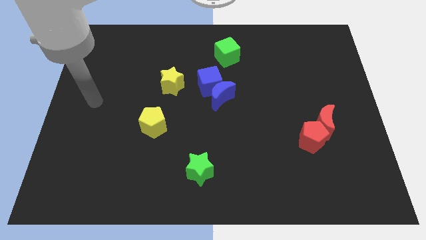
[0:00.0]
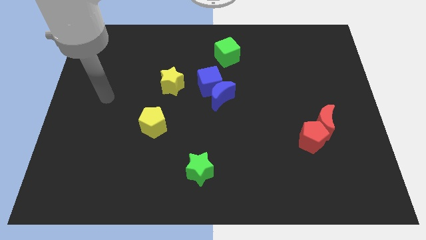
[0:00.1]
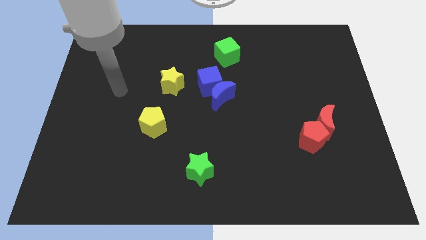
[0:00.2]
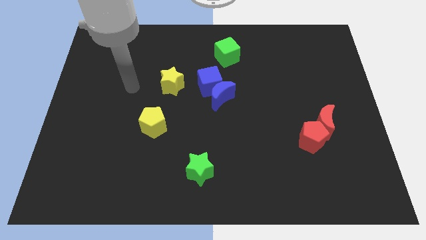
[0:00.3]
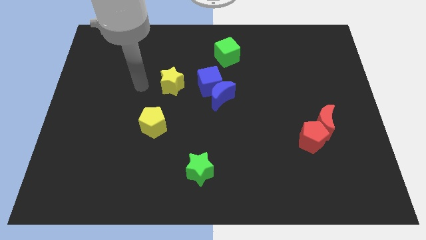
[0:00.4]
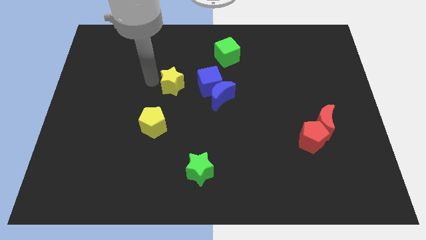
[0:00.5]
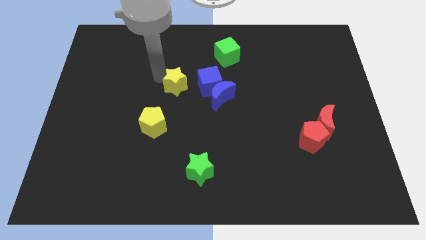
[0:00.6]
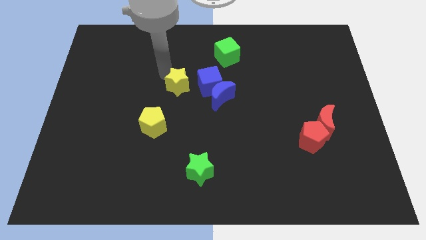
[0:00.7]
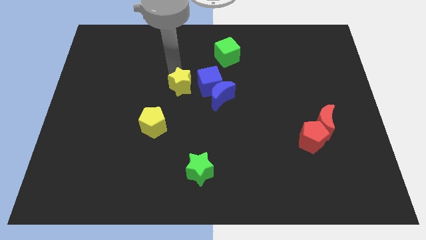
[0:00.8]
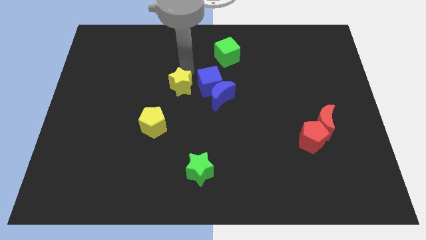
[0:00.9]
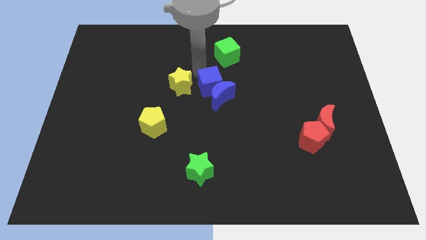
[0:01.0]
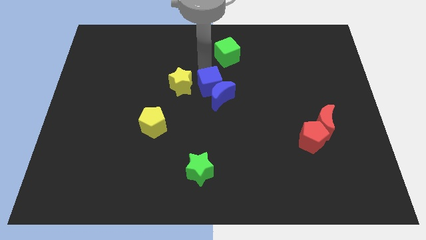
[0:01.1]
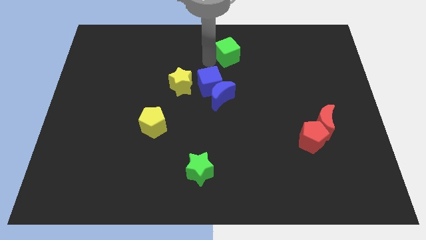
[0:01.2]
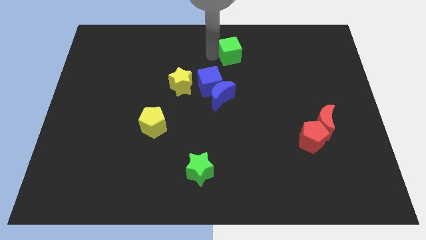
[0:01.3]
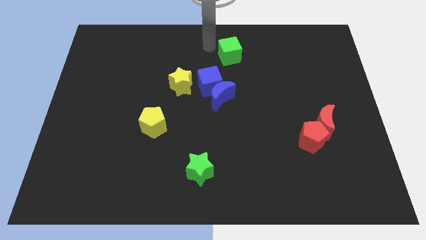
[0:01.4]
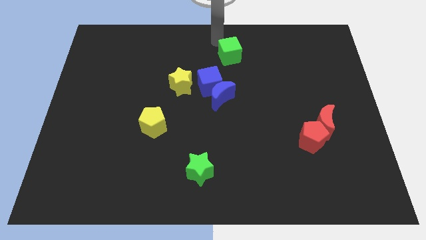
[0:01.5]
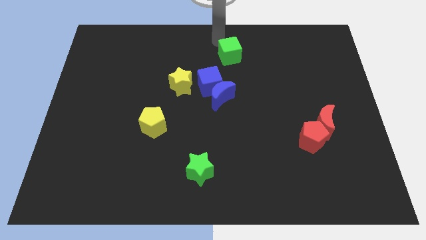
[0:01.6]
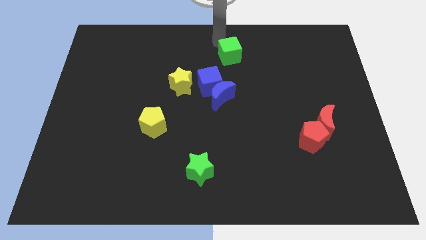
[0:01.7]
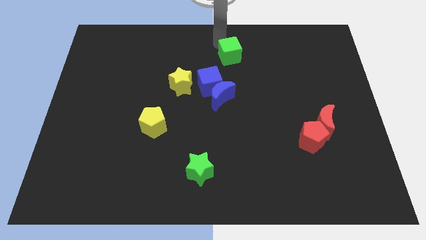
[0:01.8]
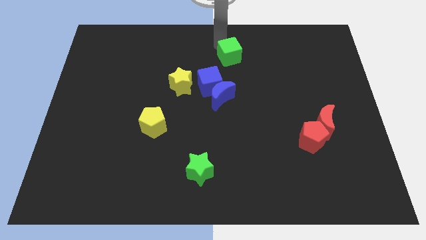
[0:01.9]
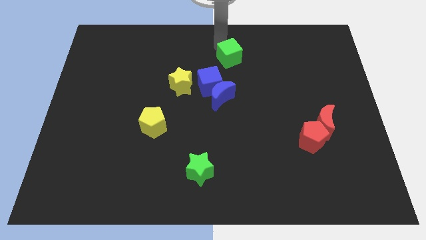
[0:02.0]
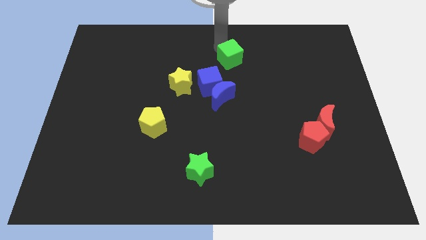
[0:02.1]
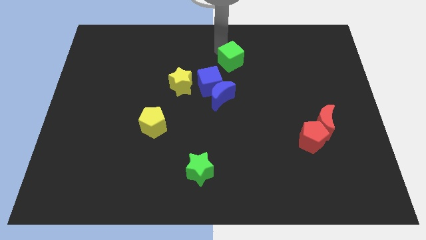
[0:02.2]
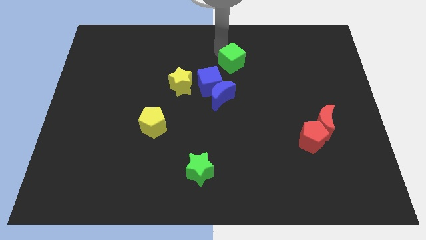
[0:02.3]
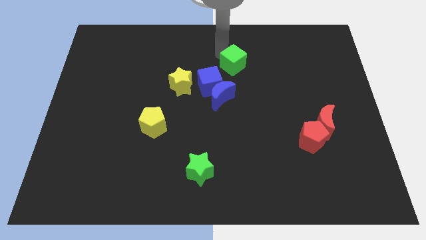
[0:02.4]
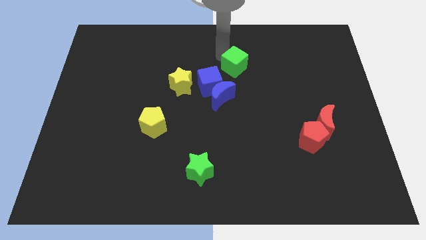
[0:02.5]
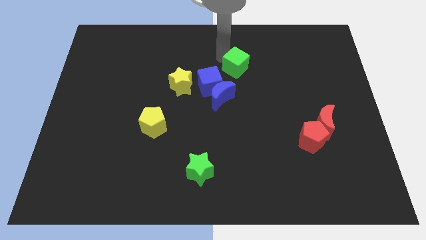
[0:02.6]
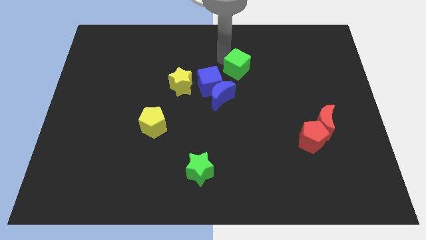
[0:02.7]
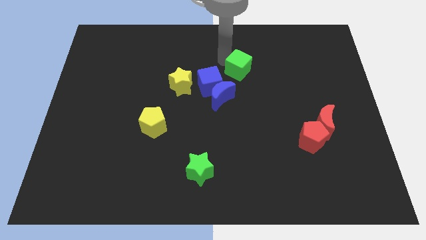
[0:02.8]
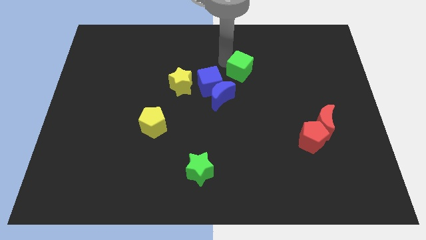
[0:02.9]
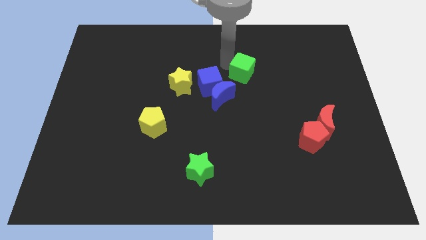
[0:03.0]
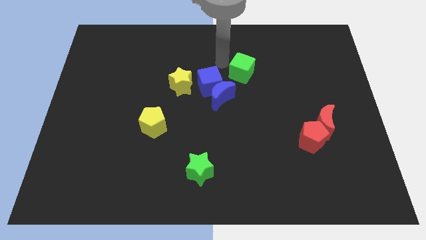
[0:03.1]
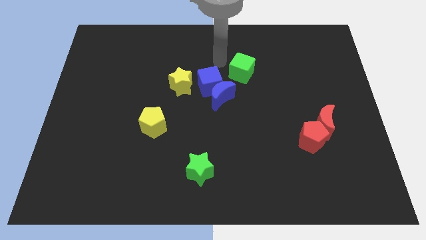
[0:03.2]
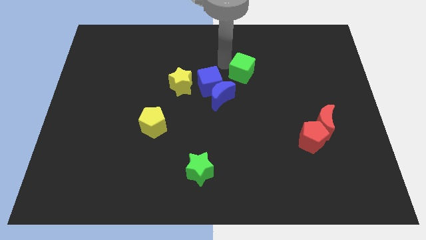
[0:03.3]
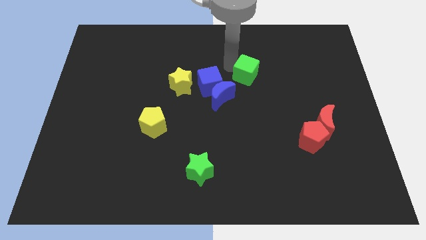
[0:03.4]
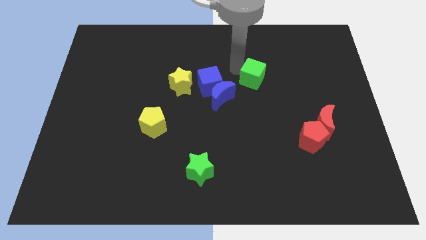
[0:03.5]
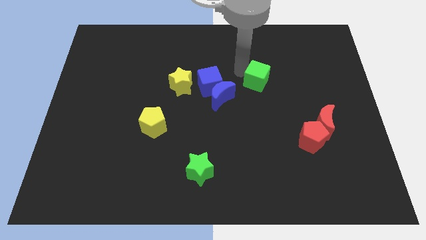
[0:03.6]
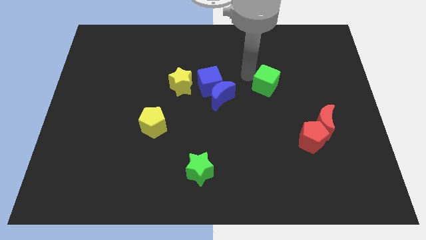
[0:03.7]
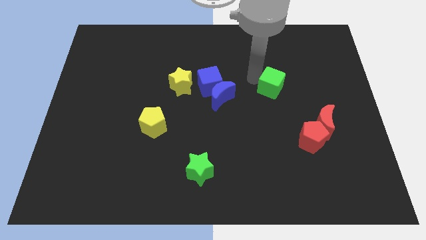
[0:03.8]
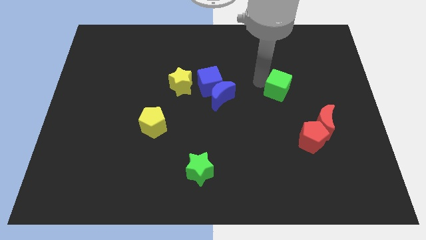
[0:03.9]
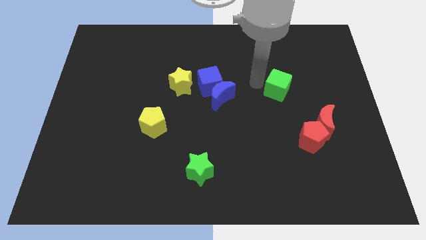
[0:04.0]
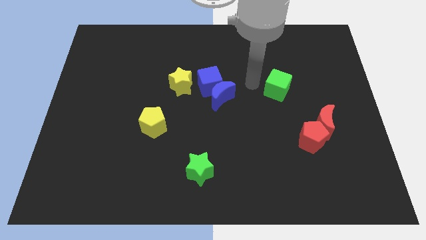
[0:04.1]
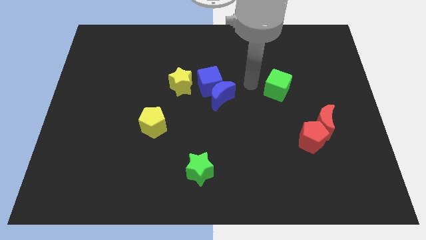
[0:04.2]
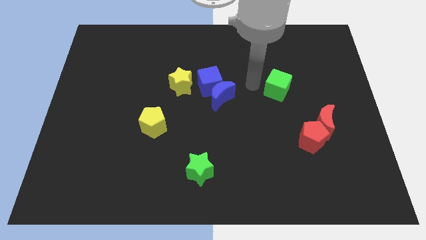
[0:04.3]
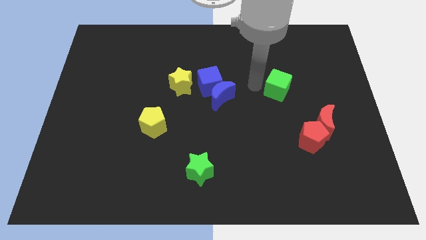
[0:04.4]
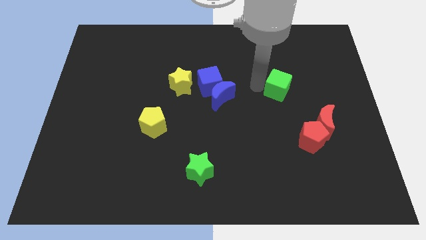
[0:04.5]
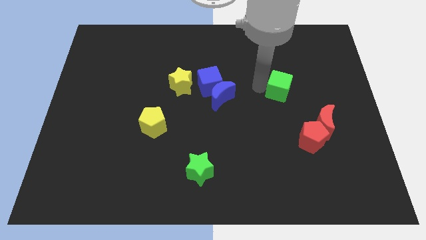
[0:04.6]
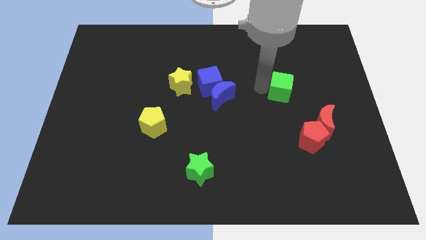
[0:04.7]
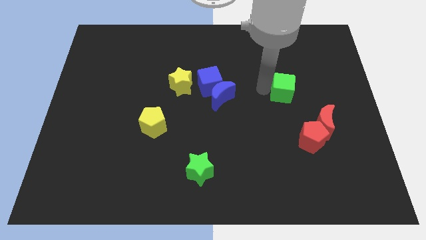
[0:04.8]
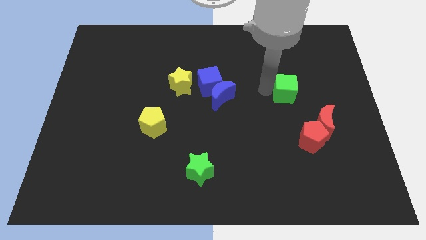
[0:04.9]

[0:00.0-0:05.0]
move the green cube to the top of the red pentagon

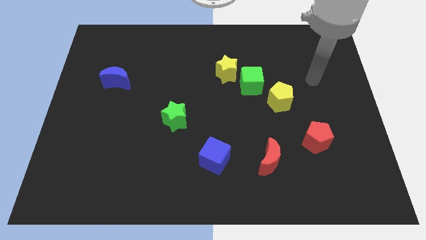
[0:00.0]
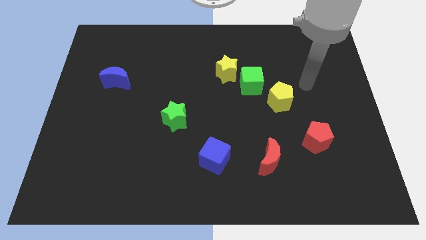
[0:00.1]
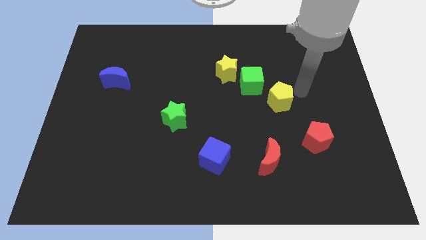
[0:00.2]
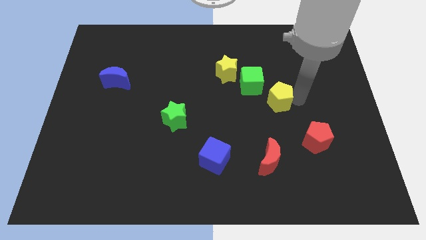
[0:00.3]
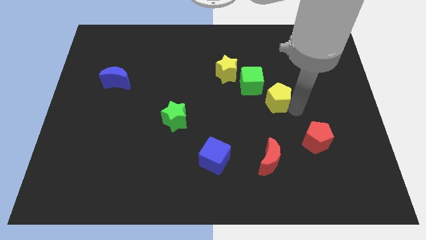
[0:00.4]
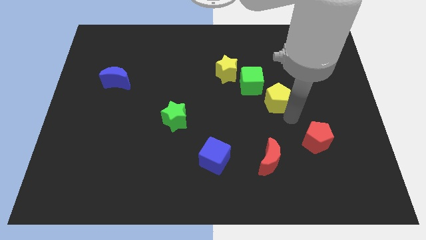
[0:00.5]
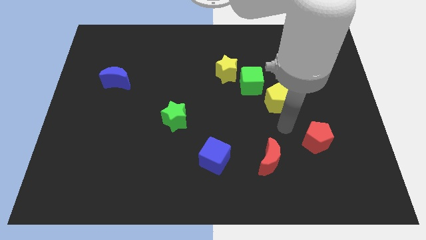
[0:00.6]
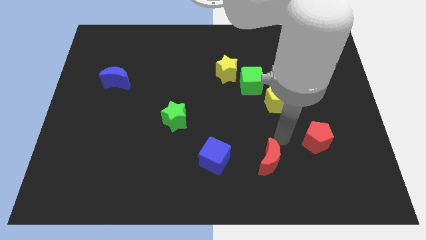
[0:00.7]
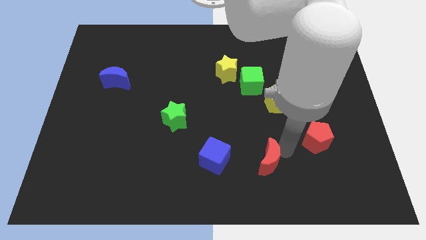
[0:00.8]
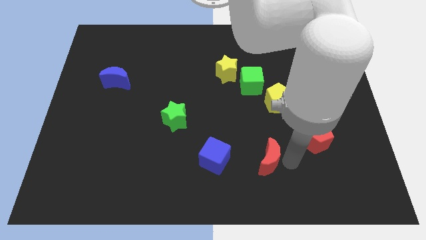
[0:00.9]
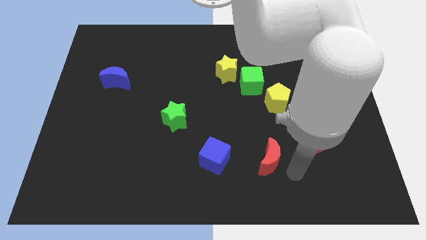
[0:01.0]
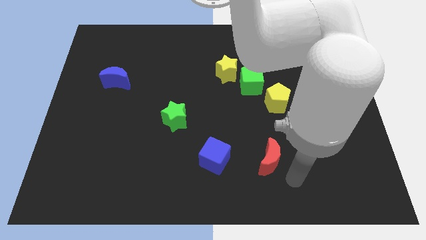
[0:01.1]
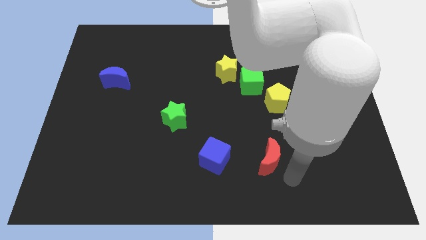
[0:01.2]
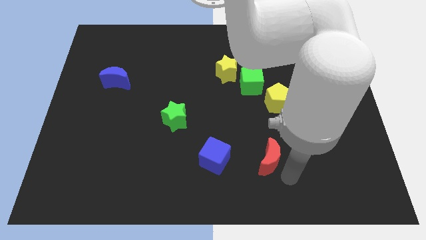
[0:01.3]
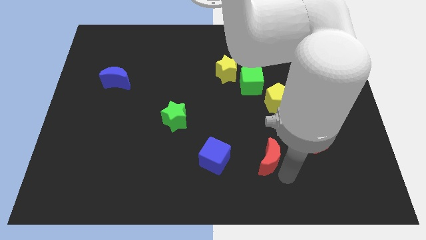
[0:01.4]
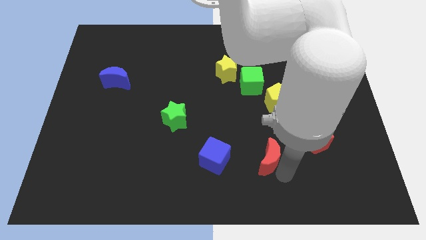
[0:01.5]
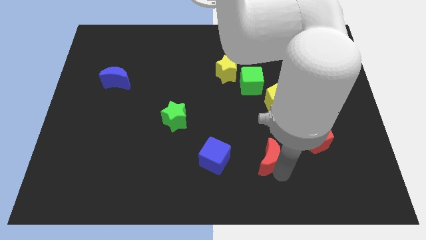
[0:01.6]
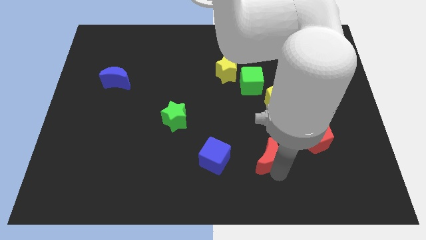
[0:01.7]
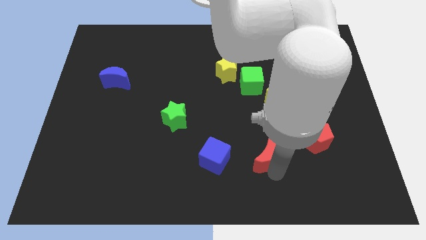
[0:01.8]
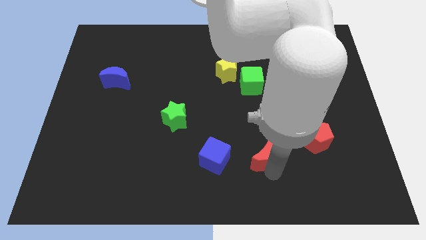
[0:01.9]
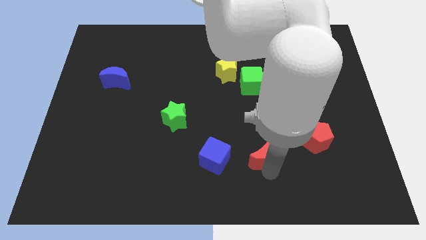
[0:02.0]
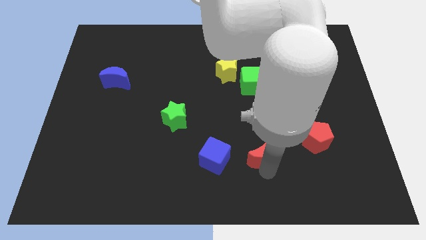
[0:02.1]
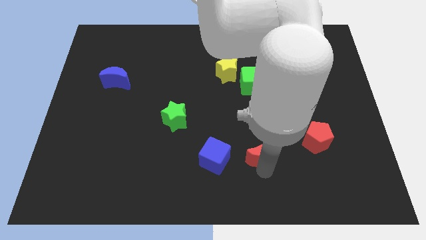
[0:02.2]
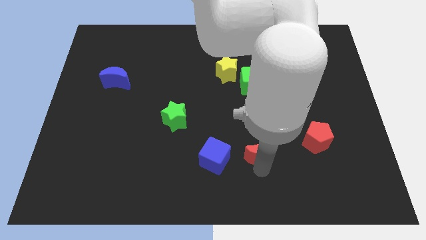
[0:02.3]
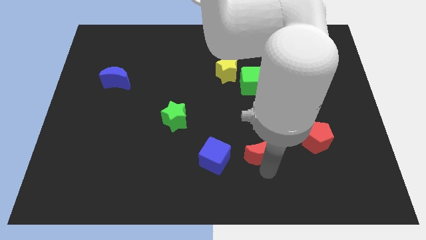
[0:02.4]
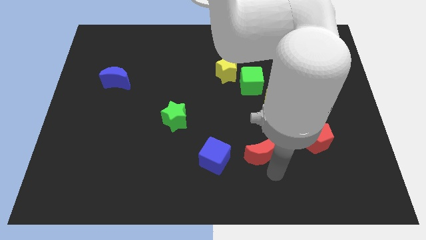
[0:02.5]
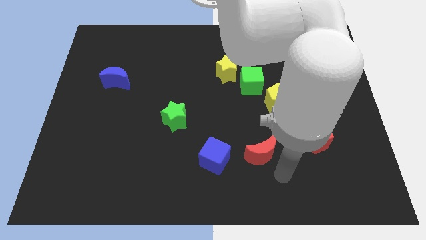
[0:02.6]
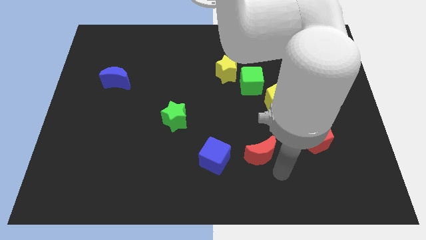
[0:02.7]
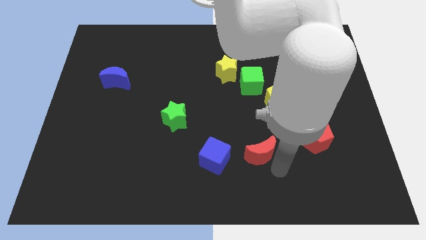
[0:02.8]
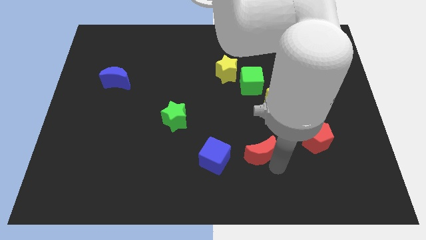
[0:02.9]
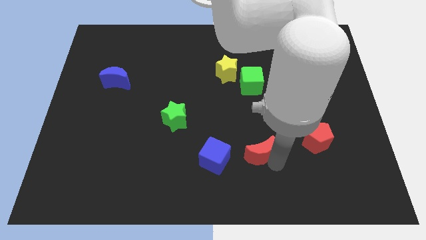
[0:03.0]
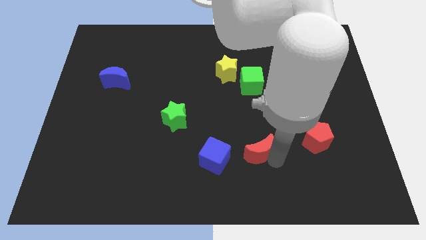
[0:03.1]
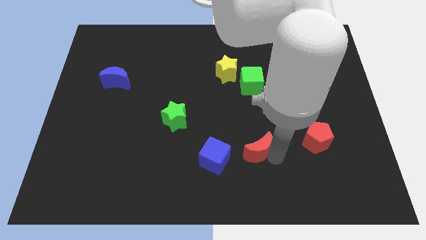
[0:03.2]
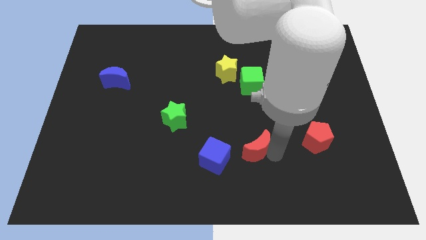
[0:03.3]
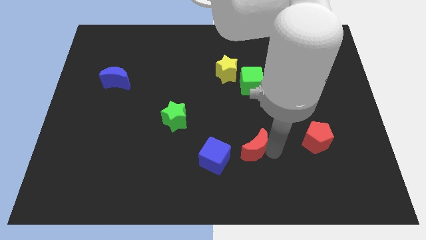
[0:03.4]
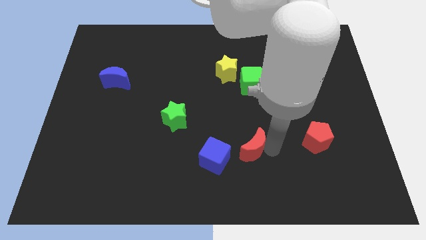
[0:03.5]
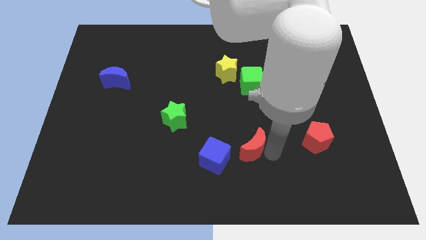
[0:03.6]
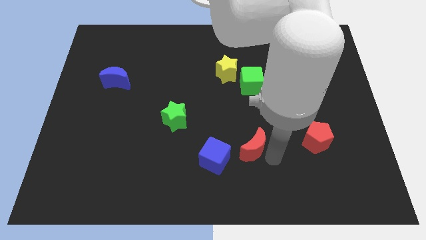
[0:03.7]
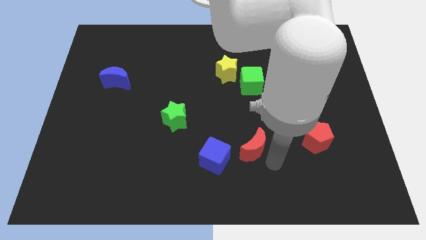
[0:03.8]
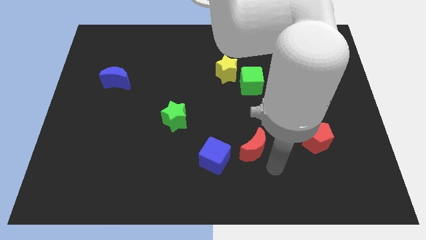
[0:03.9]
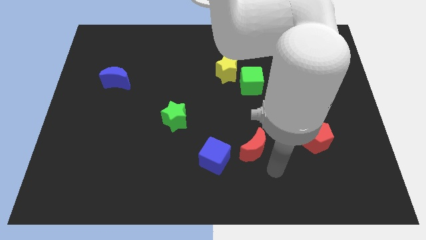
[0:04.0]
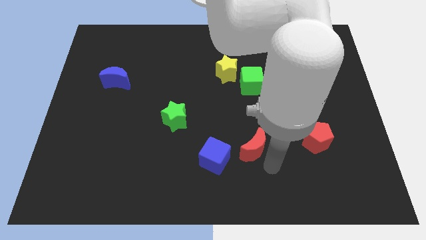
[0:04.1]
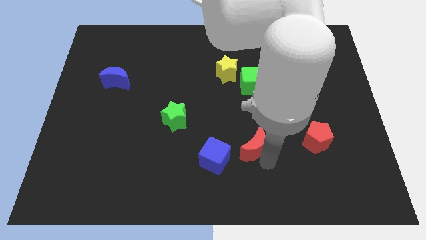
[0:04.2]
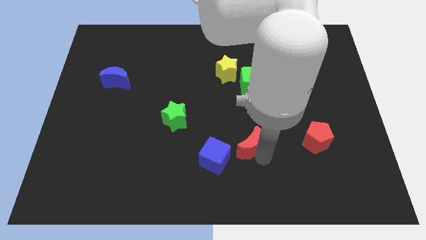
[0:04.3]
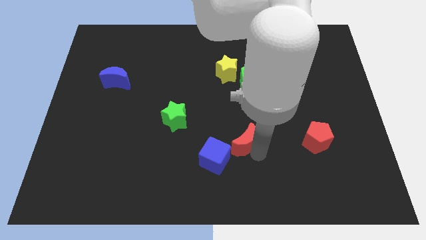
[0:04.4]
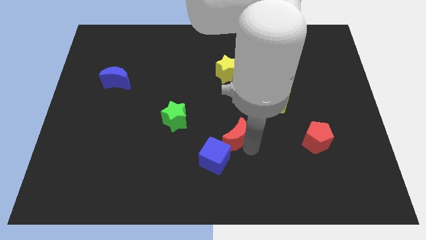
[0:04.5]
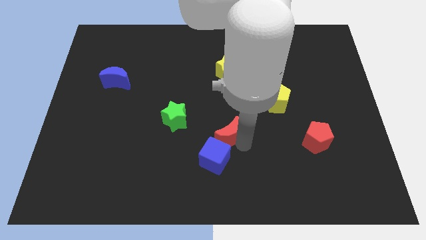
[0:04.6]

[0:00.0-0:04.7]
slide the red moon to the right side of the green star
